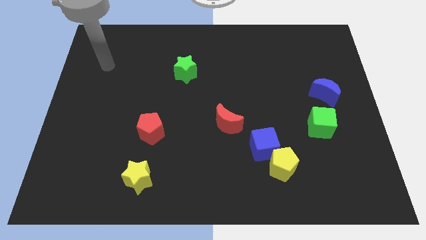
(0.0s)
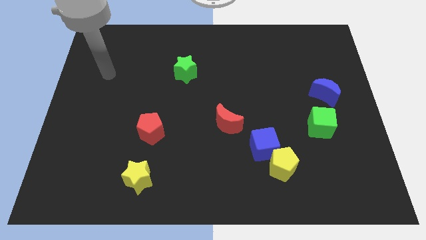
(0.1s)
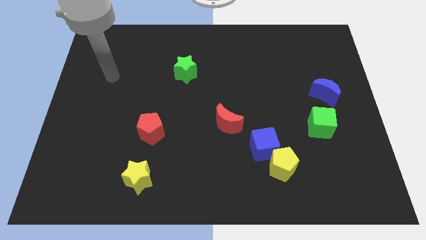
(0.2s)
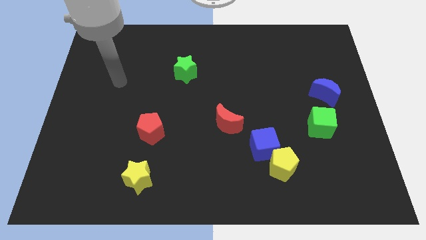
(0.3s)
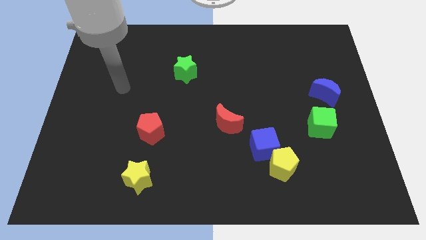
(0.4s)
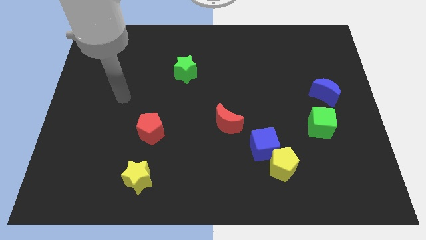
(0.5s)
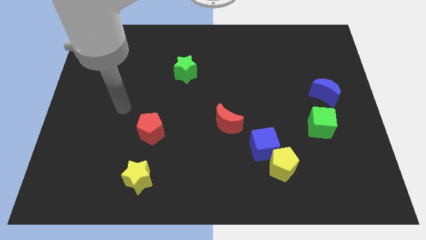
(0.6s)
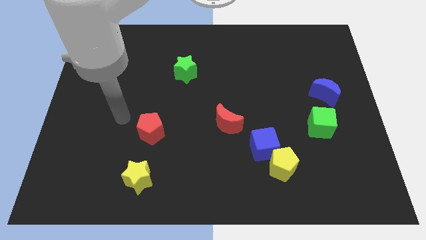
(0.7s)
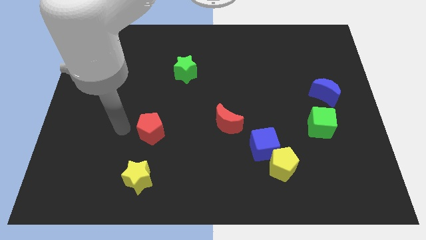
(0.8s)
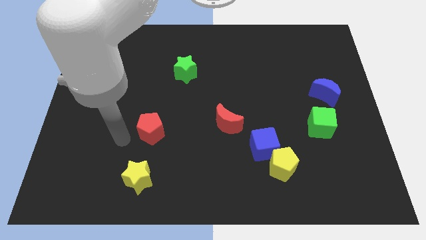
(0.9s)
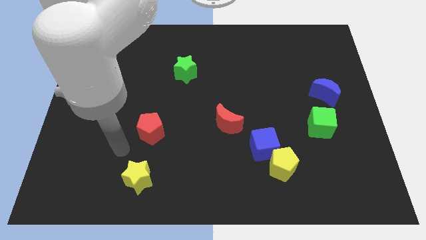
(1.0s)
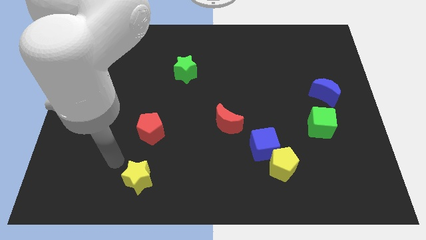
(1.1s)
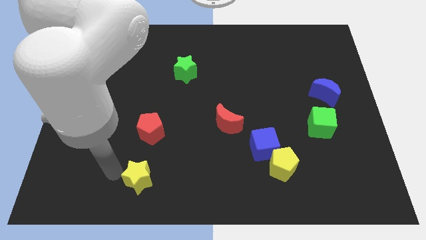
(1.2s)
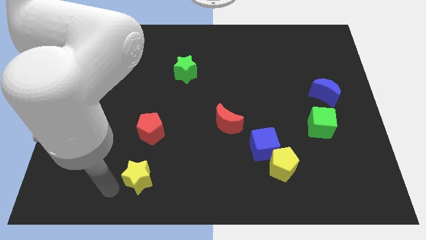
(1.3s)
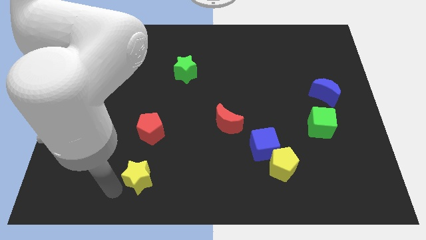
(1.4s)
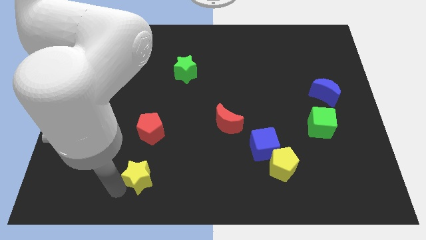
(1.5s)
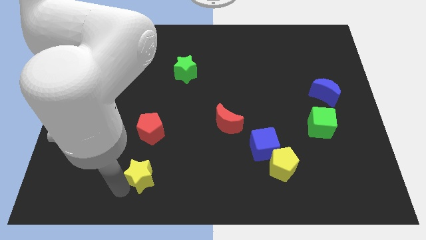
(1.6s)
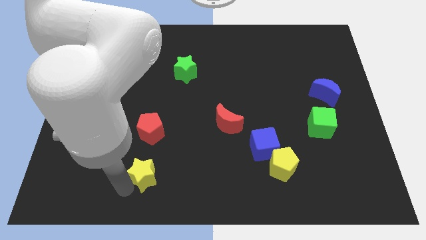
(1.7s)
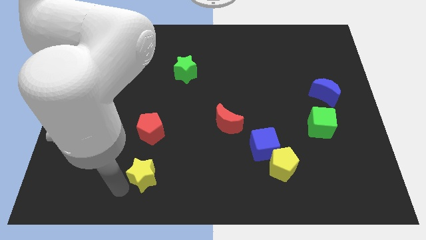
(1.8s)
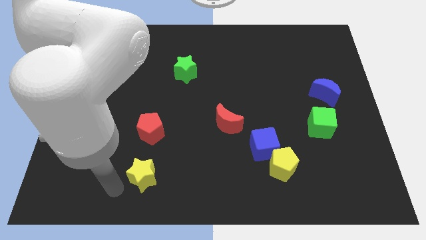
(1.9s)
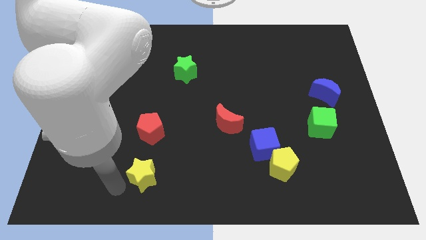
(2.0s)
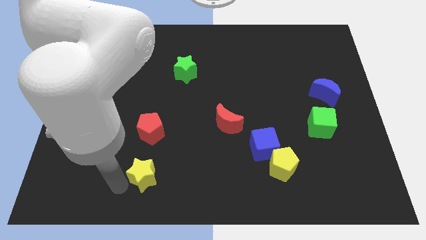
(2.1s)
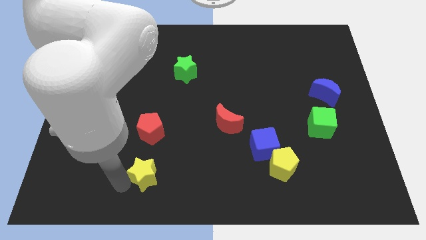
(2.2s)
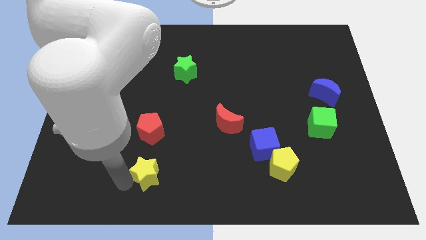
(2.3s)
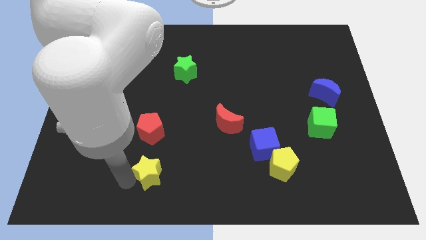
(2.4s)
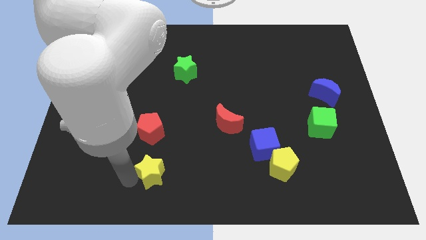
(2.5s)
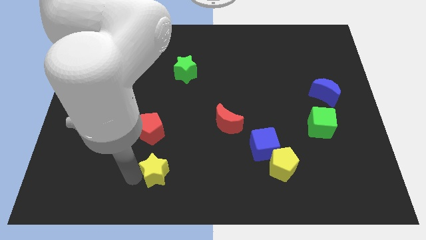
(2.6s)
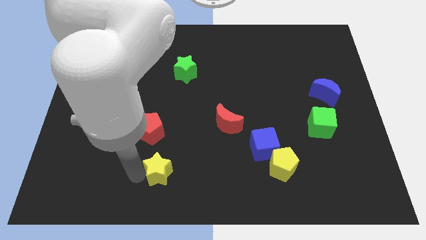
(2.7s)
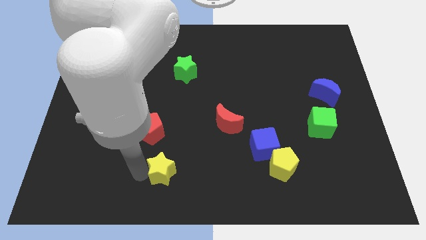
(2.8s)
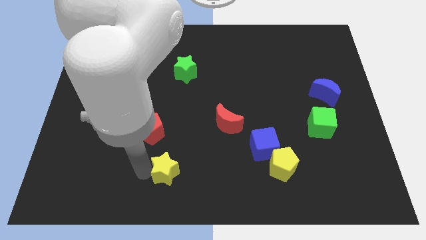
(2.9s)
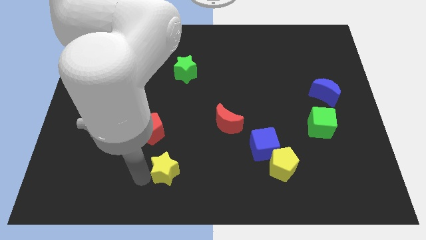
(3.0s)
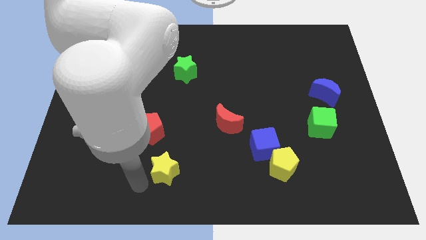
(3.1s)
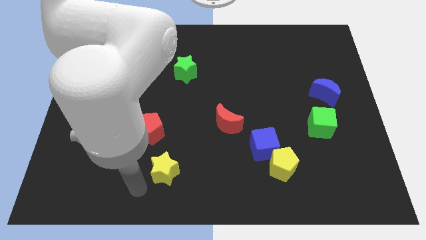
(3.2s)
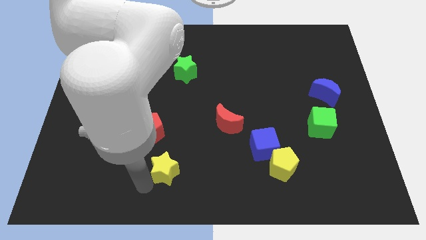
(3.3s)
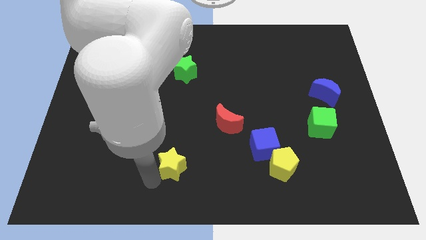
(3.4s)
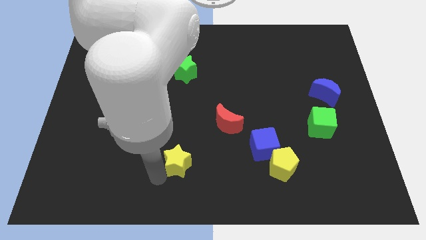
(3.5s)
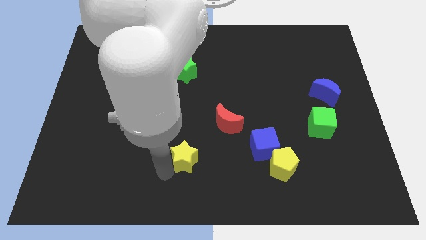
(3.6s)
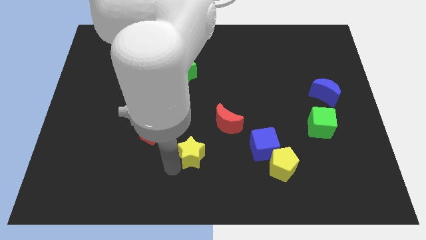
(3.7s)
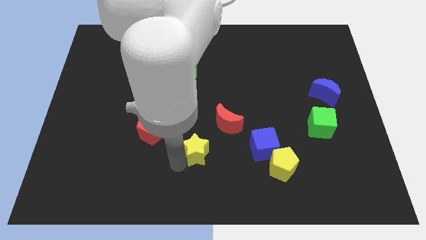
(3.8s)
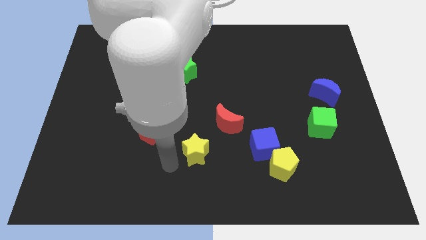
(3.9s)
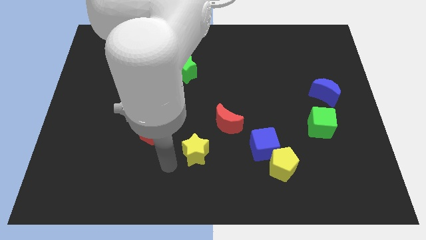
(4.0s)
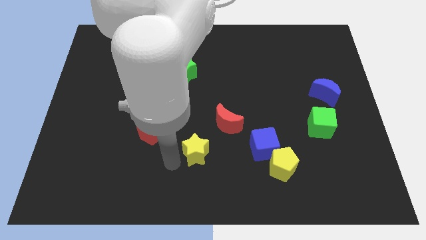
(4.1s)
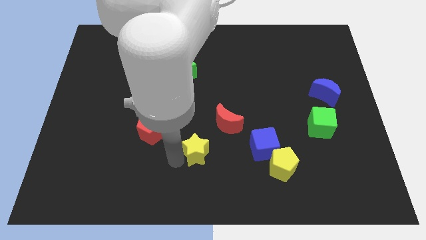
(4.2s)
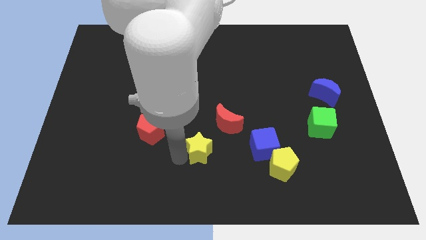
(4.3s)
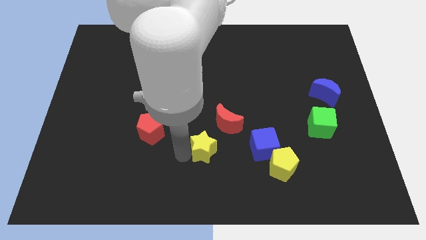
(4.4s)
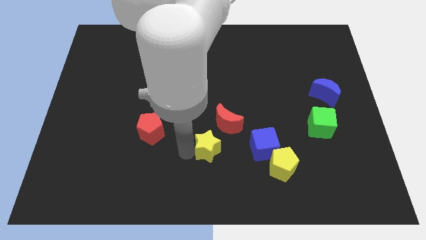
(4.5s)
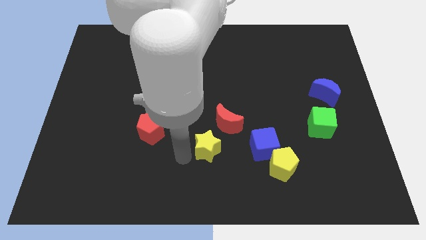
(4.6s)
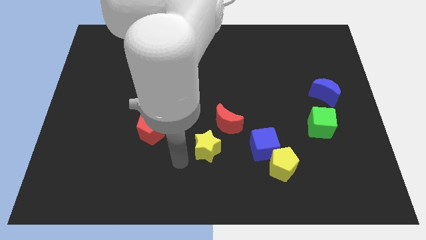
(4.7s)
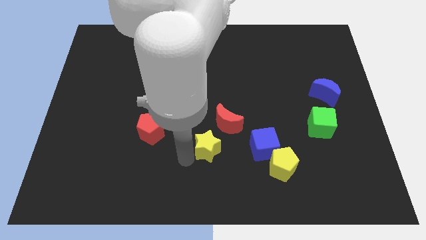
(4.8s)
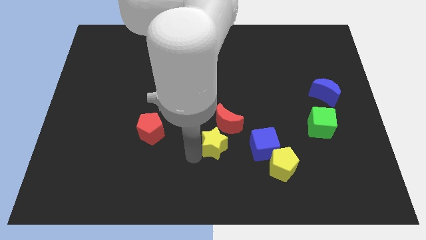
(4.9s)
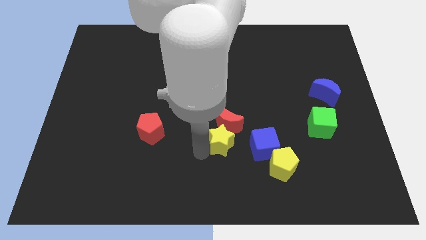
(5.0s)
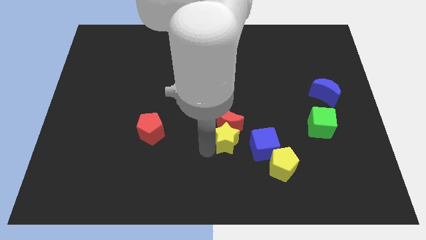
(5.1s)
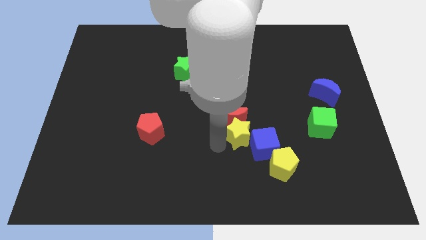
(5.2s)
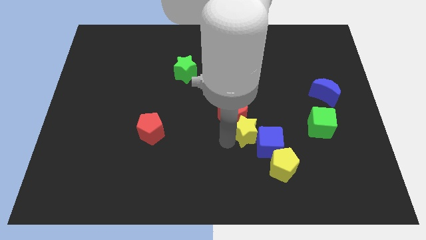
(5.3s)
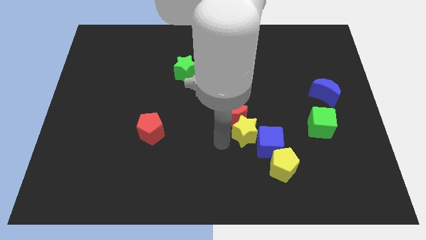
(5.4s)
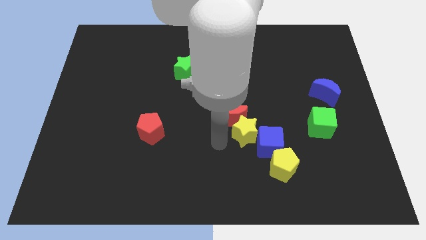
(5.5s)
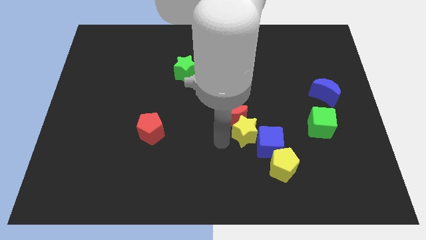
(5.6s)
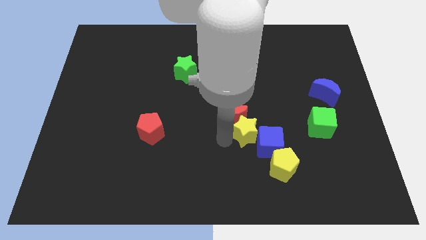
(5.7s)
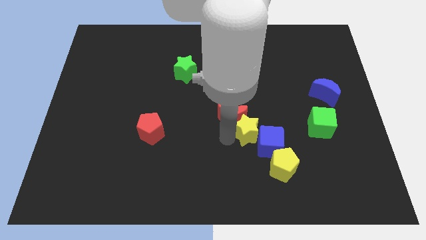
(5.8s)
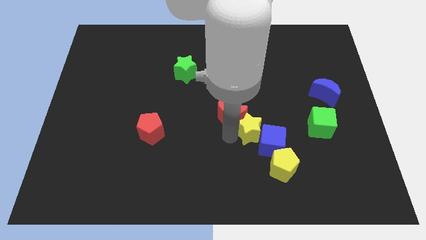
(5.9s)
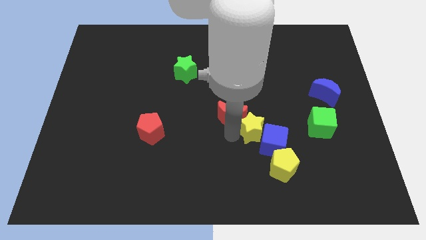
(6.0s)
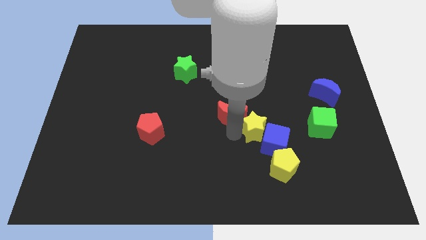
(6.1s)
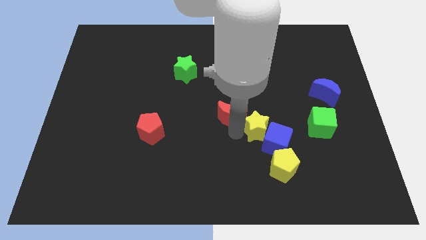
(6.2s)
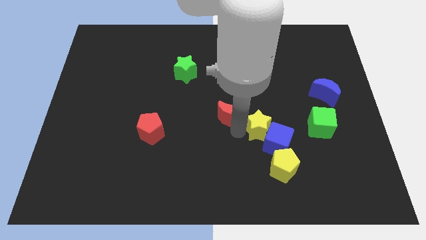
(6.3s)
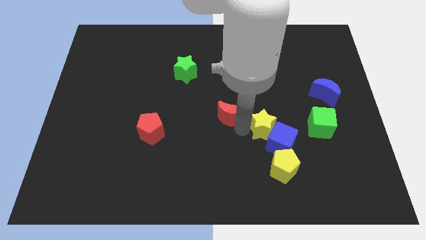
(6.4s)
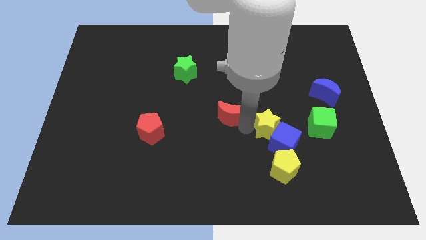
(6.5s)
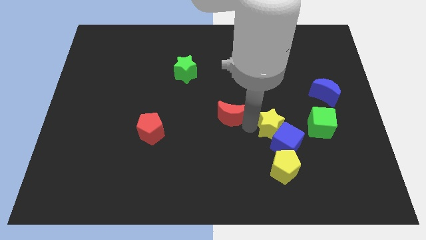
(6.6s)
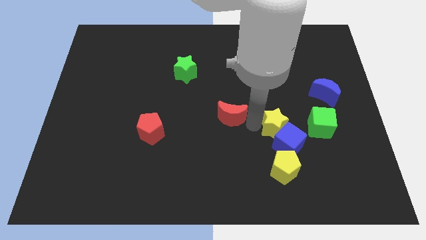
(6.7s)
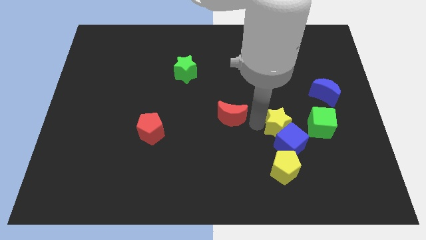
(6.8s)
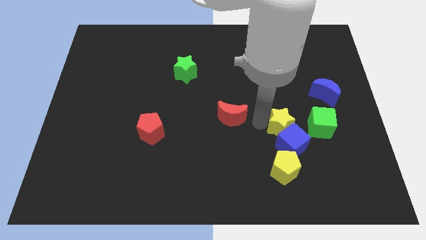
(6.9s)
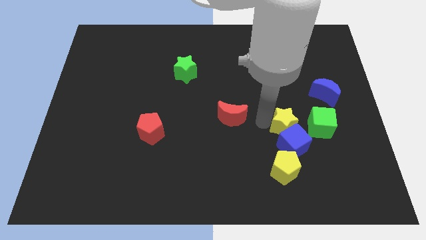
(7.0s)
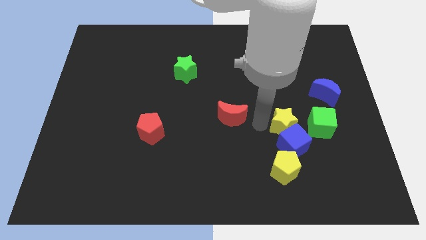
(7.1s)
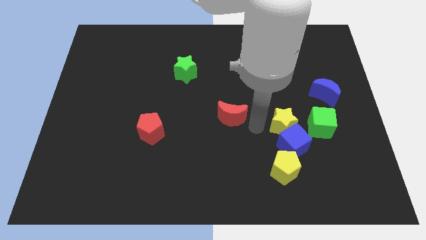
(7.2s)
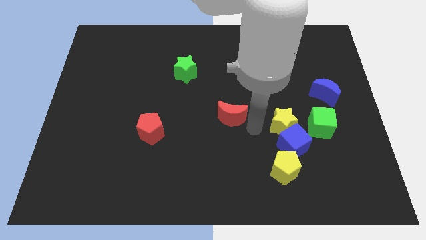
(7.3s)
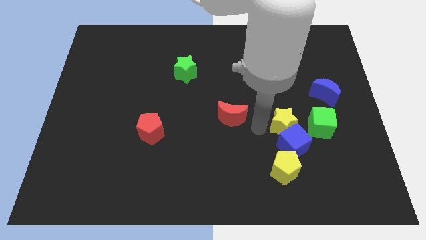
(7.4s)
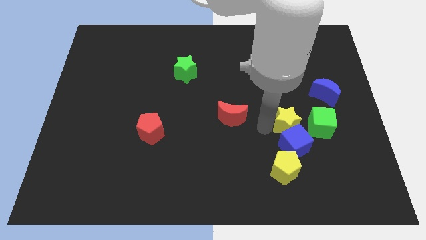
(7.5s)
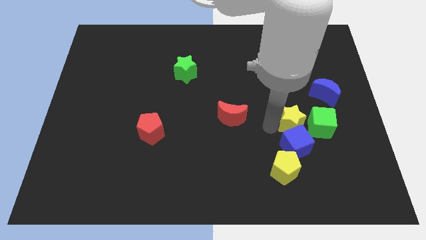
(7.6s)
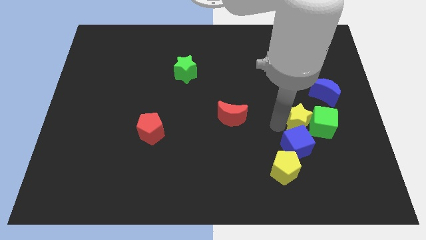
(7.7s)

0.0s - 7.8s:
push the yellow star close to the green cube

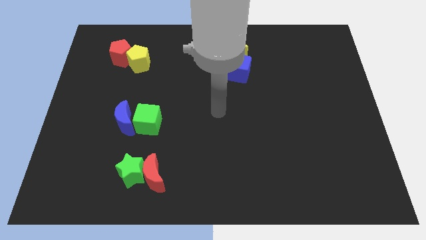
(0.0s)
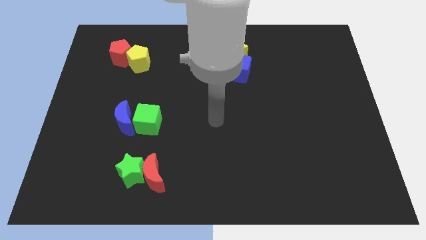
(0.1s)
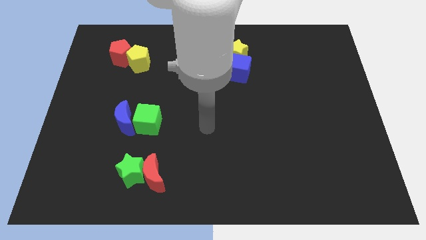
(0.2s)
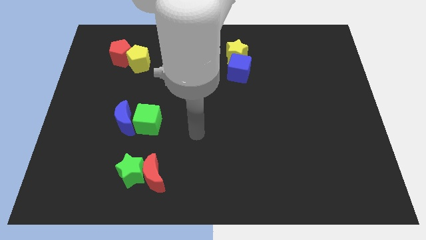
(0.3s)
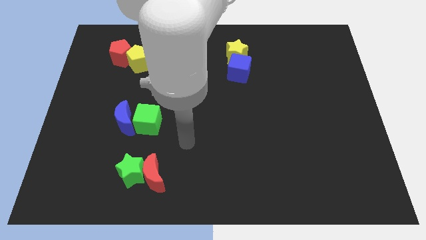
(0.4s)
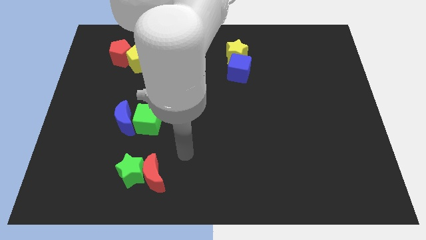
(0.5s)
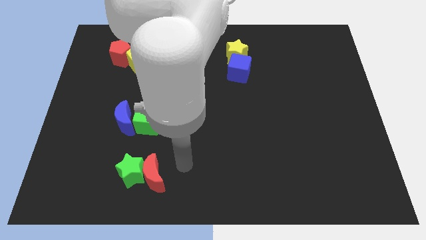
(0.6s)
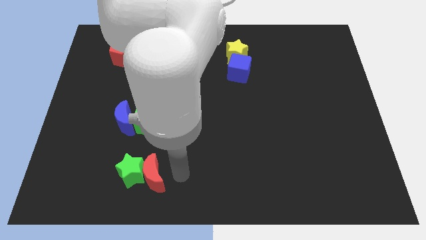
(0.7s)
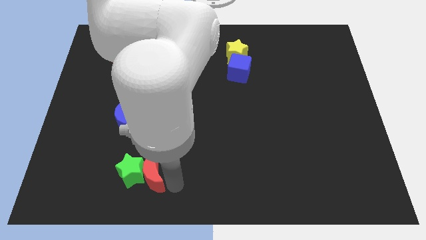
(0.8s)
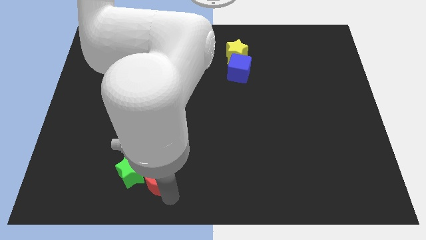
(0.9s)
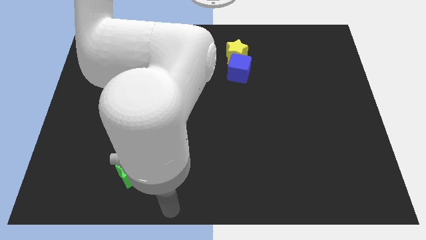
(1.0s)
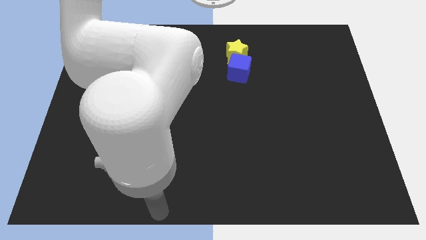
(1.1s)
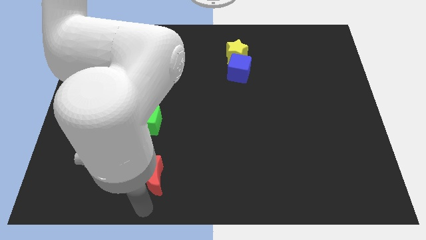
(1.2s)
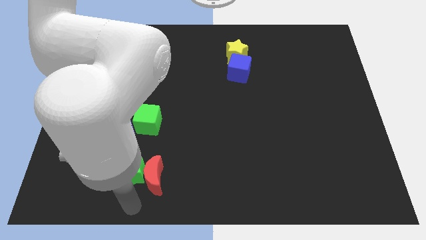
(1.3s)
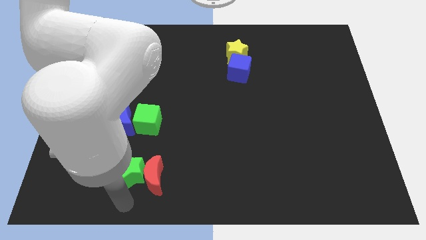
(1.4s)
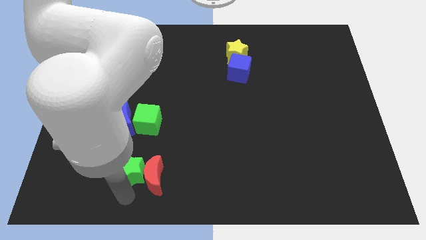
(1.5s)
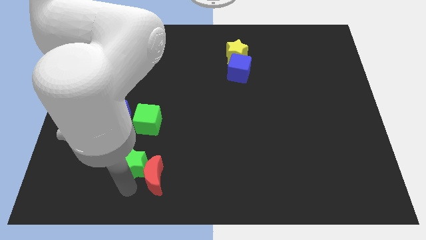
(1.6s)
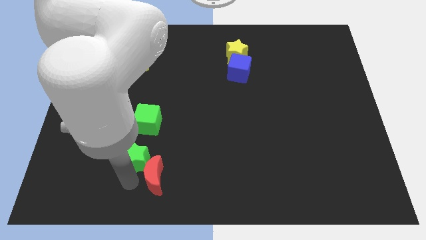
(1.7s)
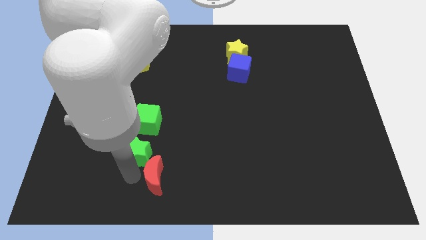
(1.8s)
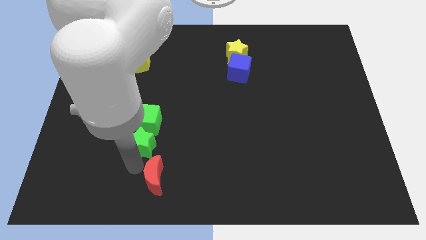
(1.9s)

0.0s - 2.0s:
put the green star next to the green cube
